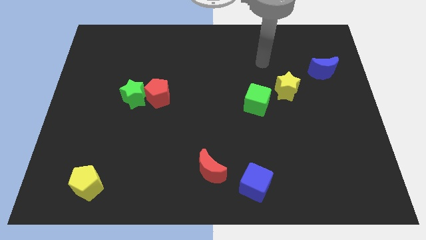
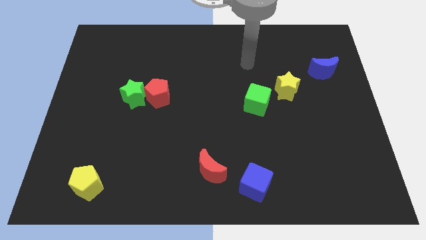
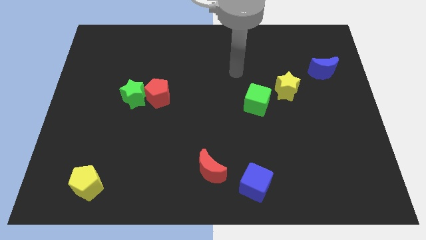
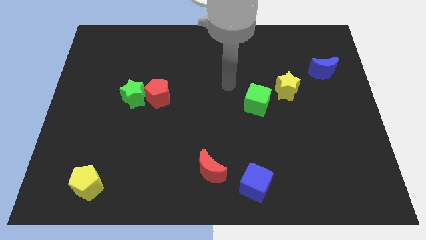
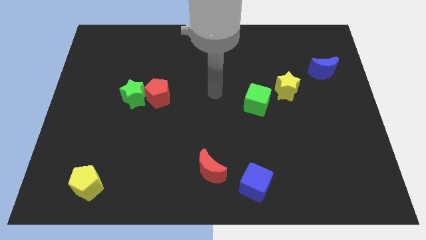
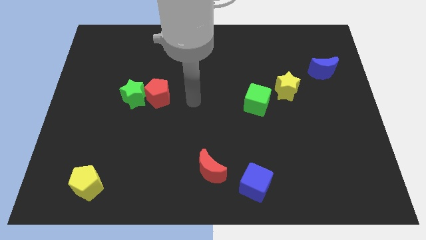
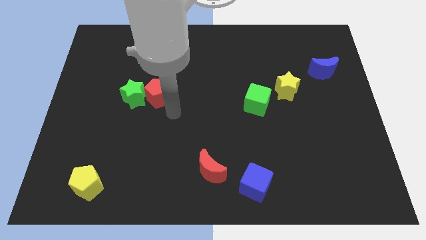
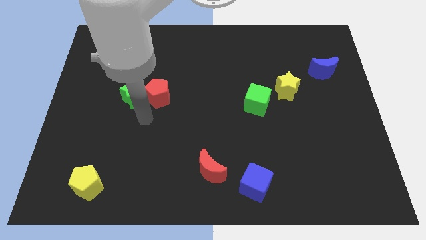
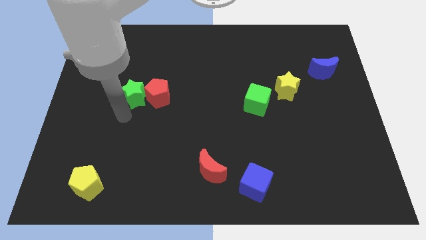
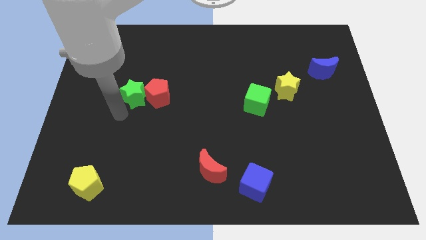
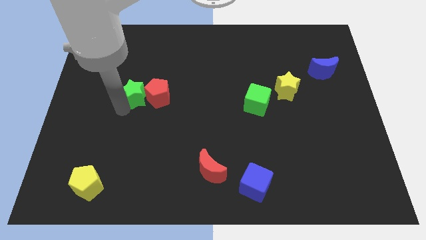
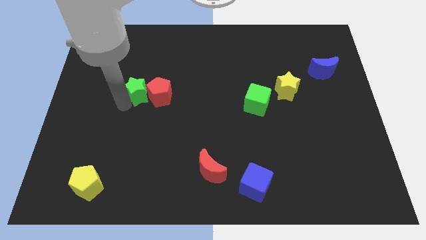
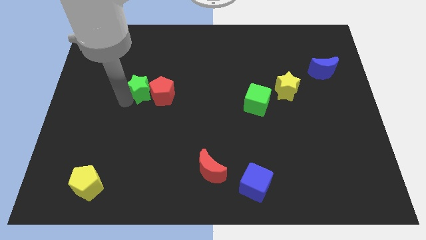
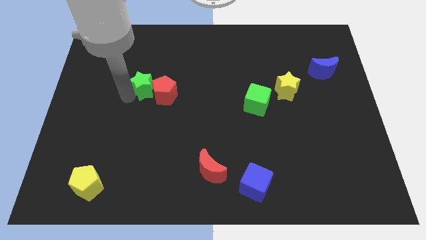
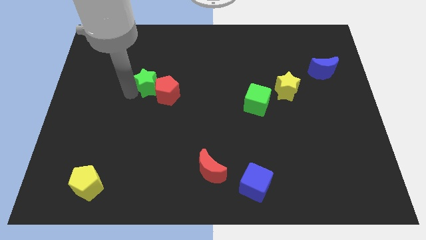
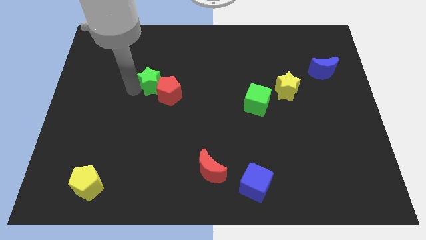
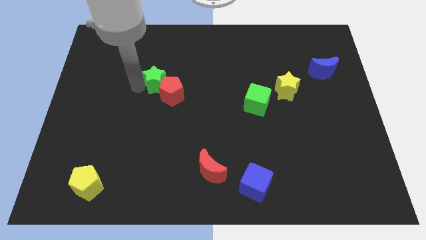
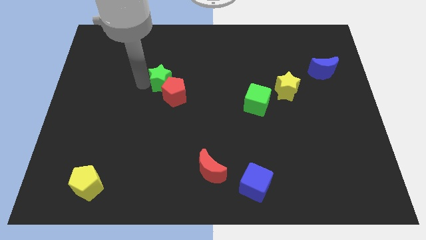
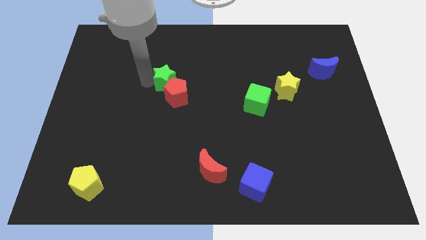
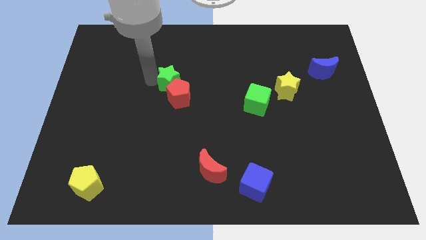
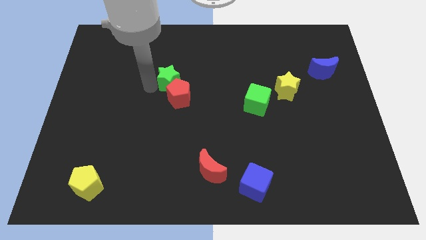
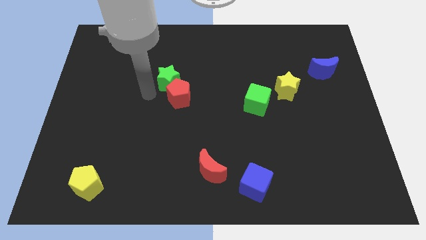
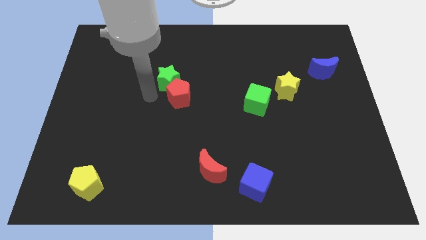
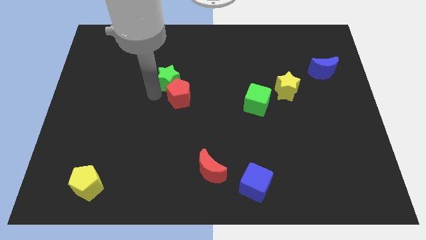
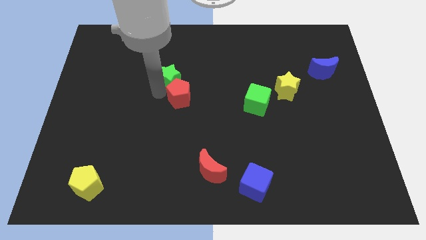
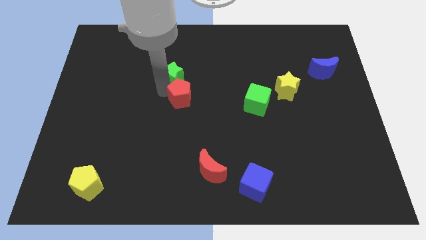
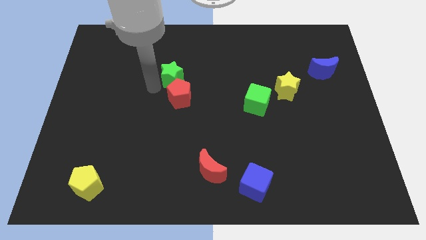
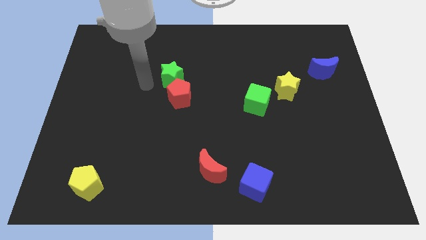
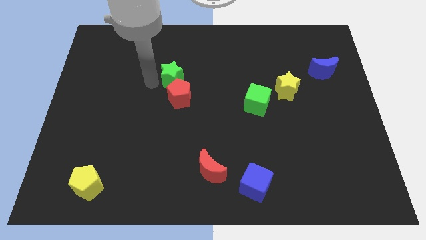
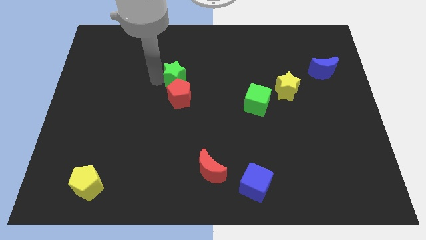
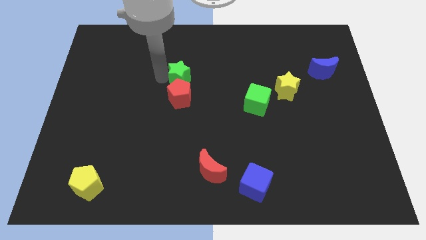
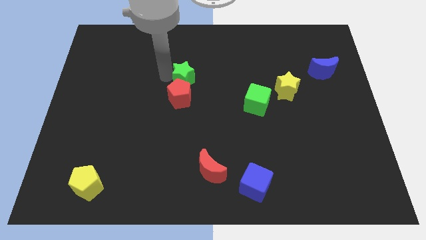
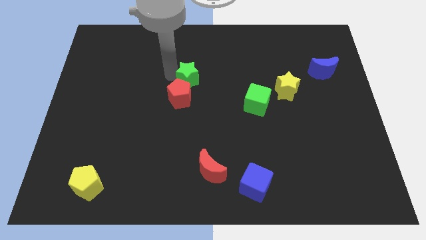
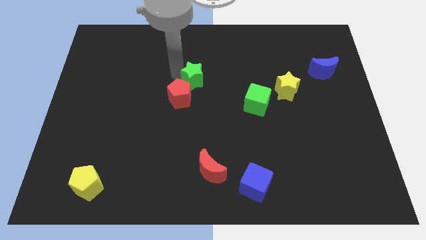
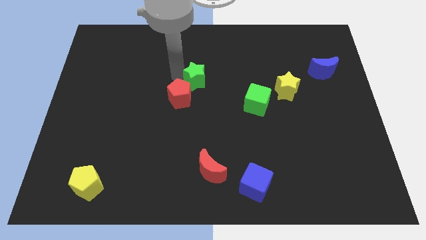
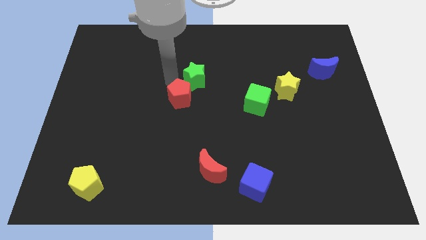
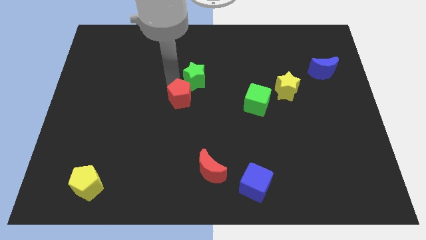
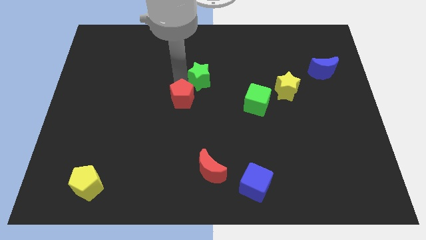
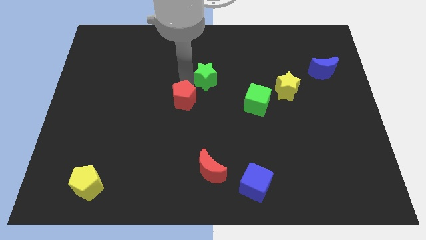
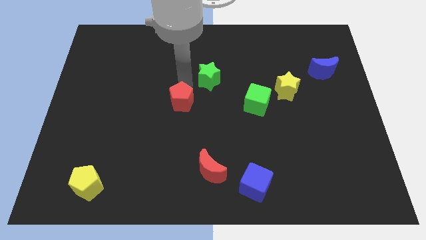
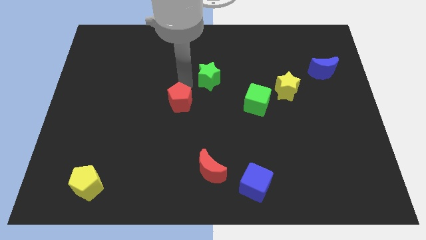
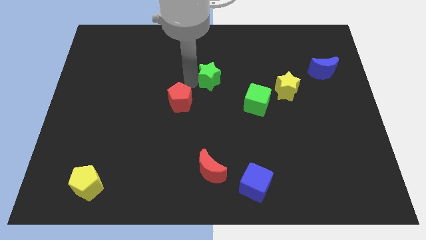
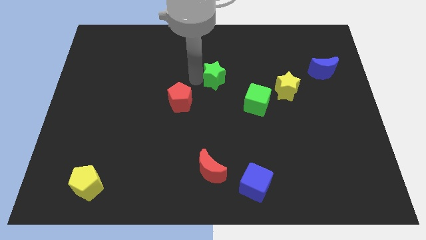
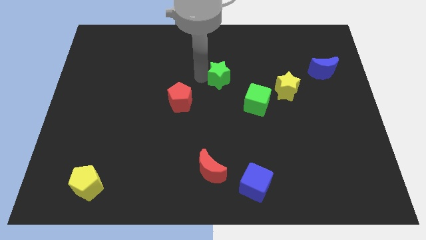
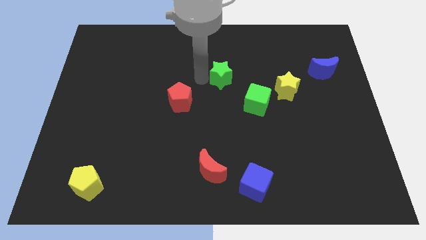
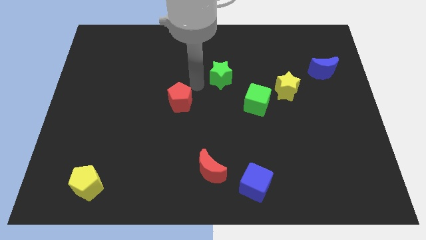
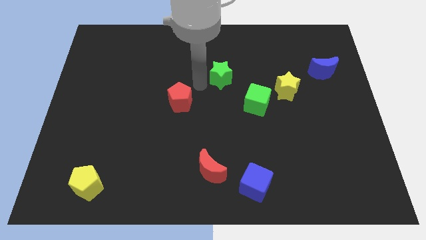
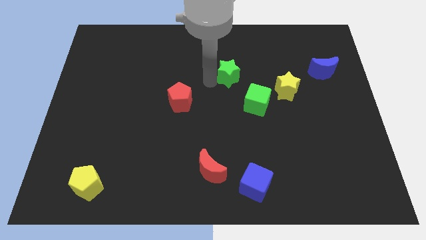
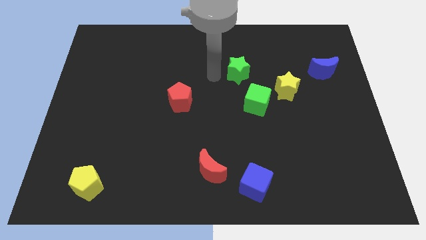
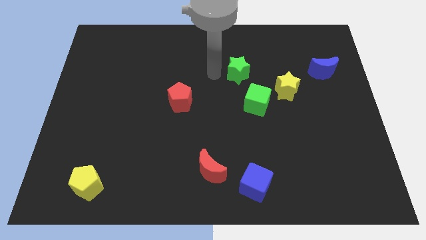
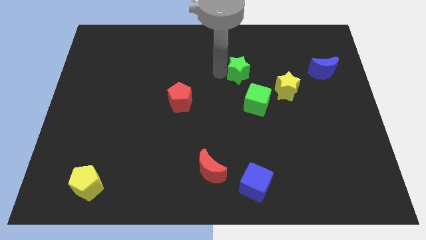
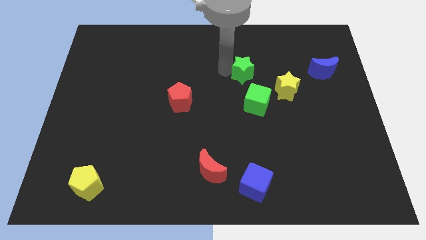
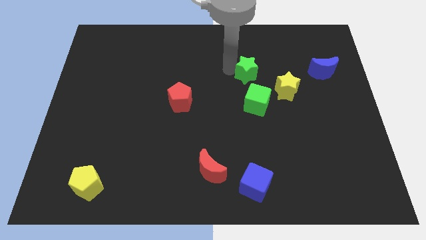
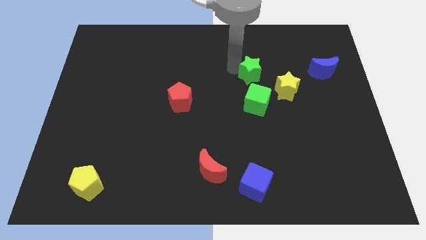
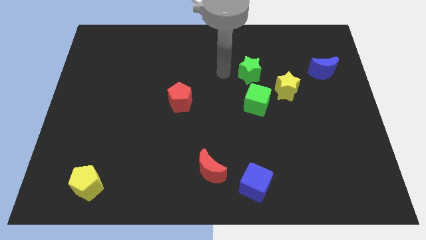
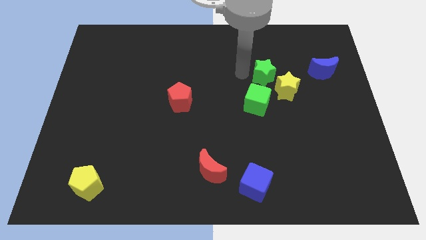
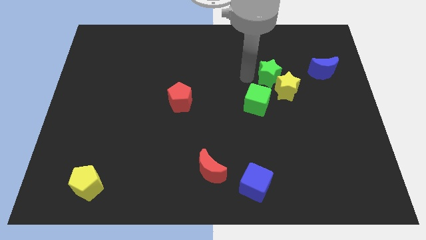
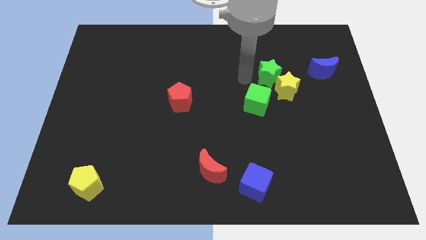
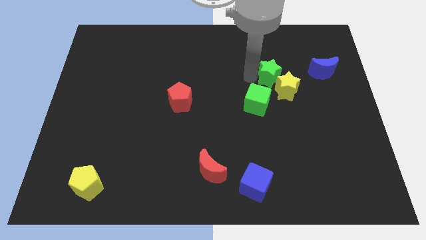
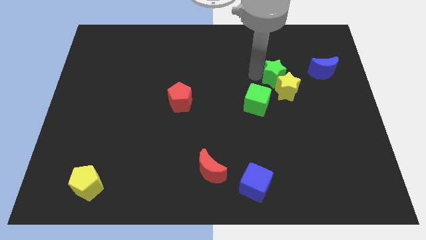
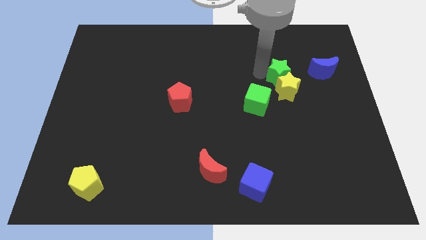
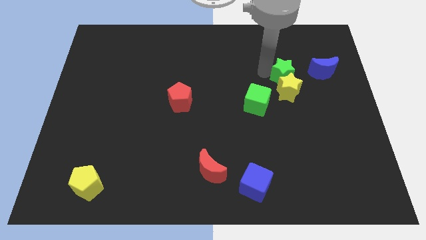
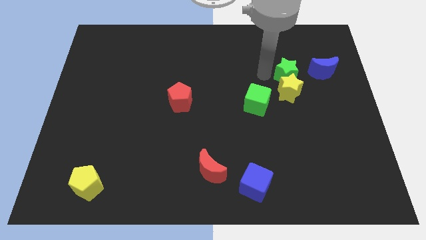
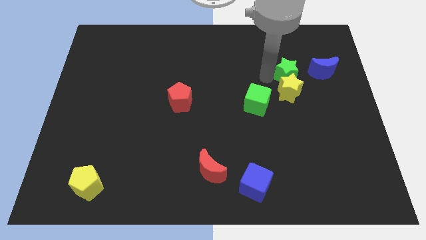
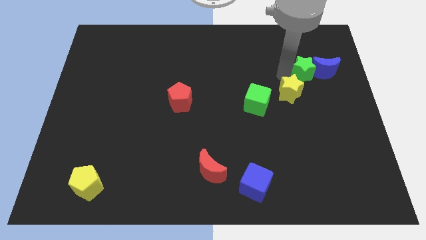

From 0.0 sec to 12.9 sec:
put the green star close to the blue moon

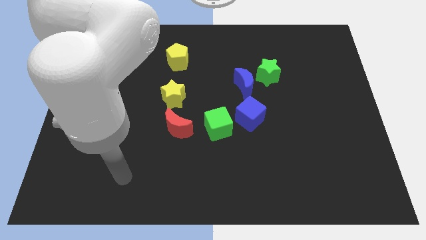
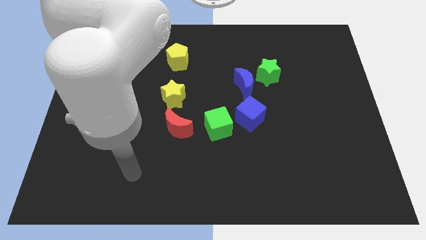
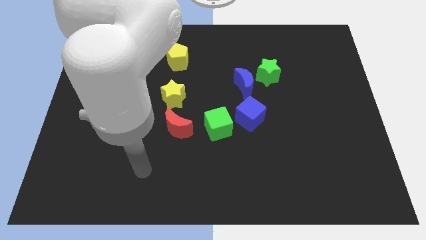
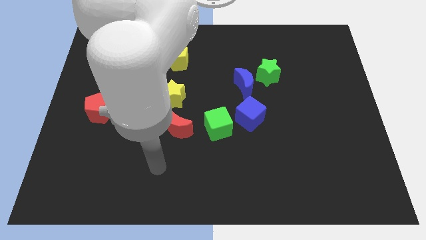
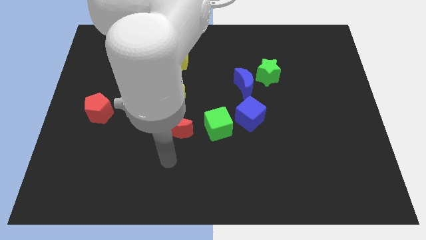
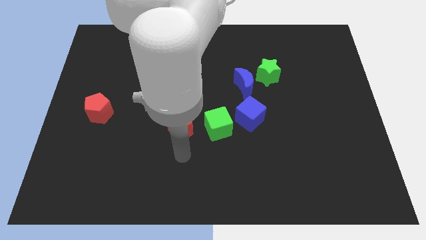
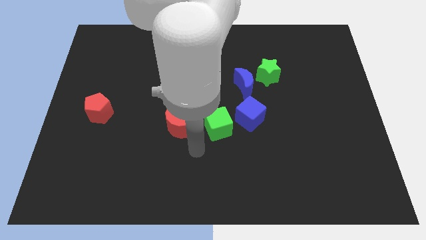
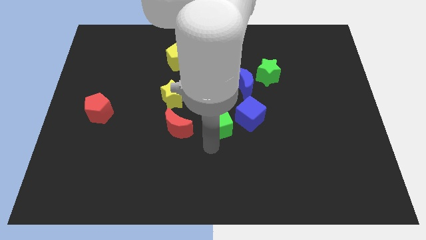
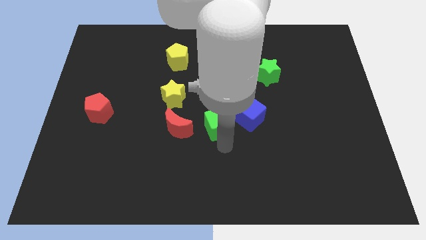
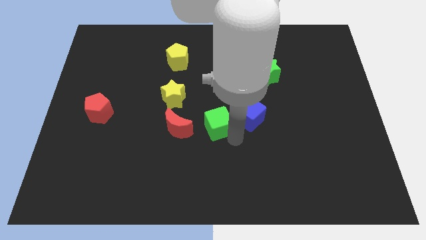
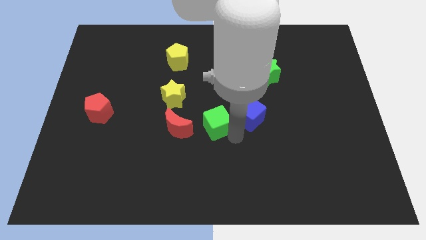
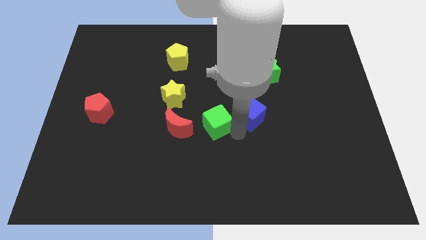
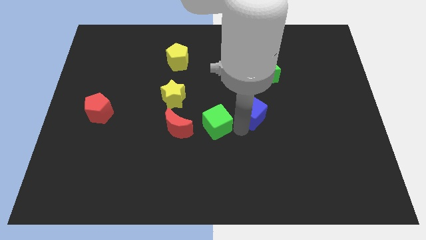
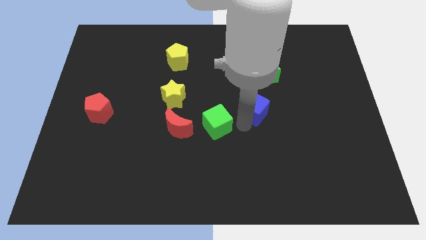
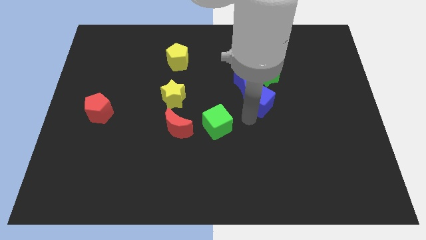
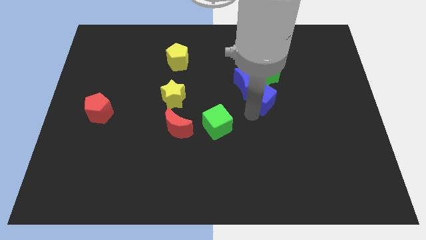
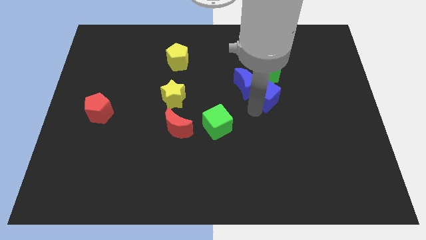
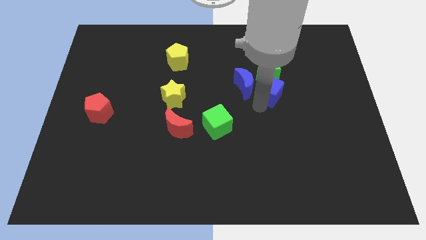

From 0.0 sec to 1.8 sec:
put the blue cube to the green star
